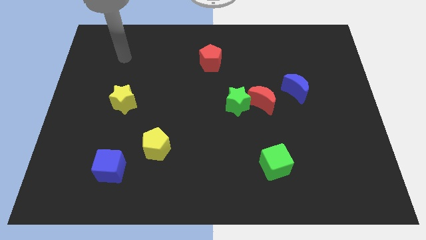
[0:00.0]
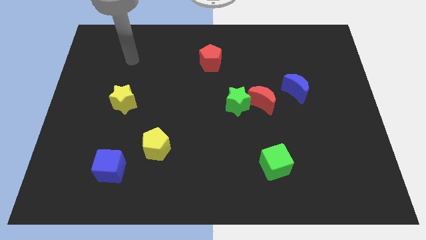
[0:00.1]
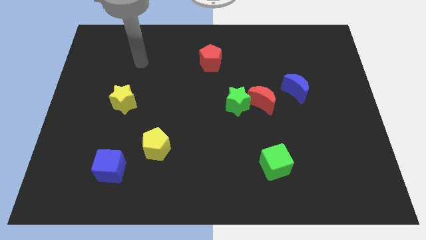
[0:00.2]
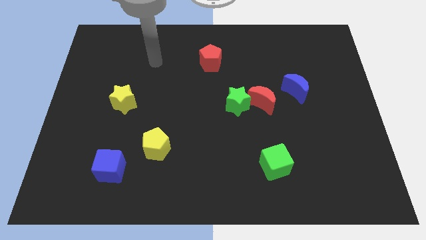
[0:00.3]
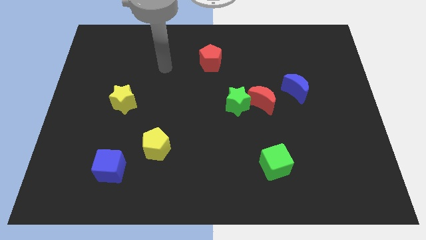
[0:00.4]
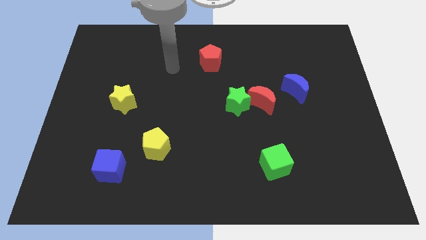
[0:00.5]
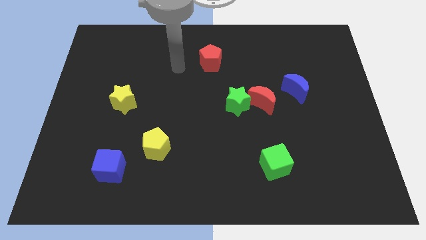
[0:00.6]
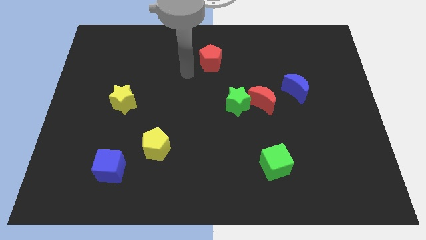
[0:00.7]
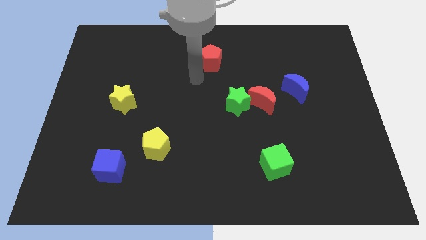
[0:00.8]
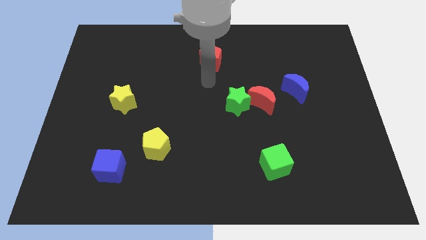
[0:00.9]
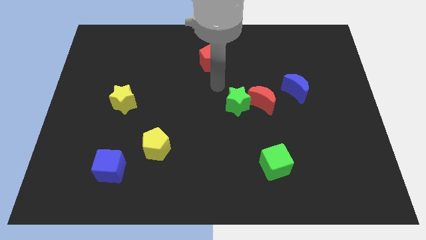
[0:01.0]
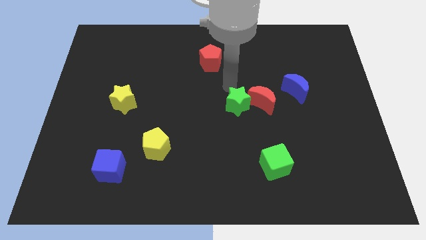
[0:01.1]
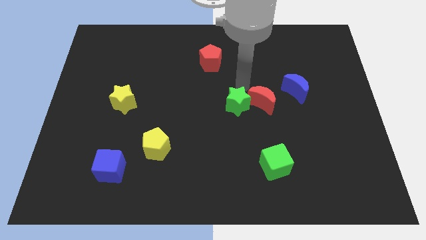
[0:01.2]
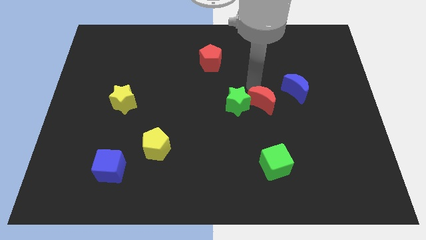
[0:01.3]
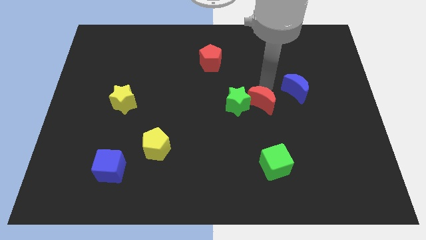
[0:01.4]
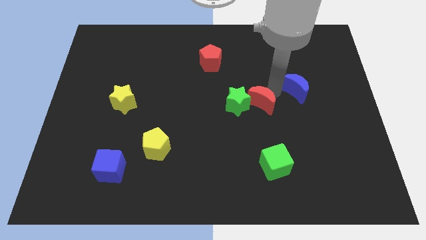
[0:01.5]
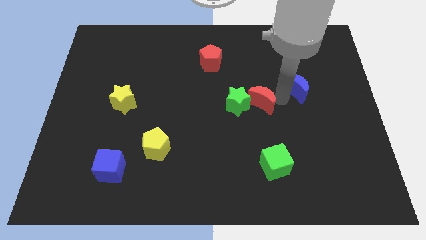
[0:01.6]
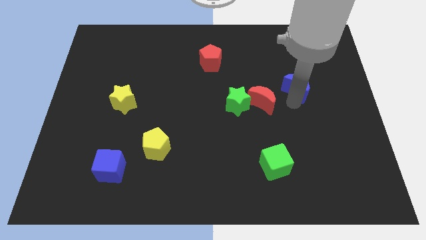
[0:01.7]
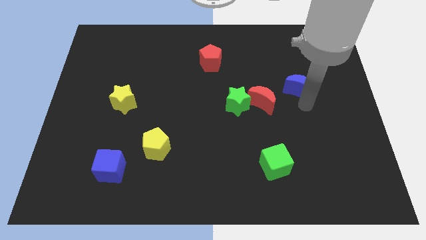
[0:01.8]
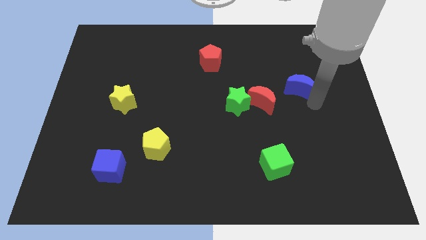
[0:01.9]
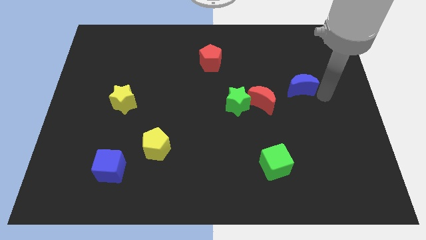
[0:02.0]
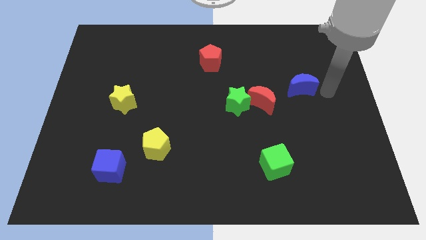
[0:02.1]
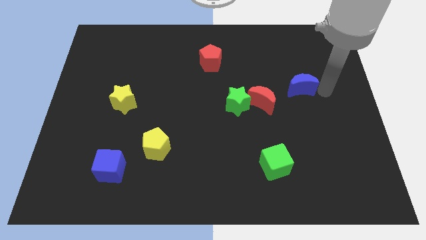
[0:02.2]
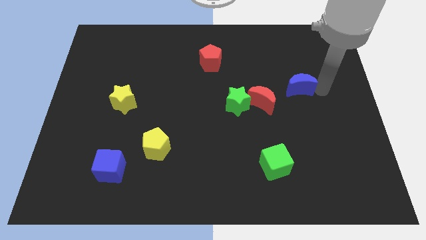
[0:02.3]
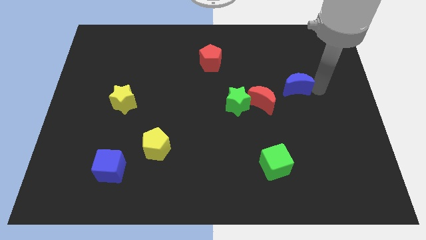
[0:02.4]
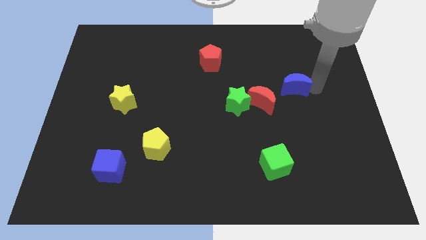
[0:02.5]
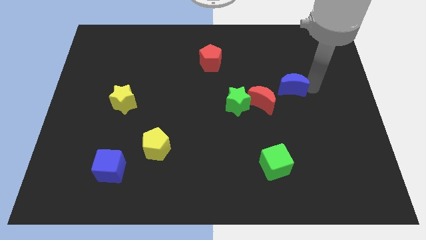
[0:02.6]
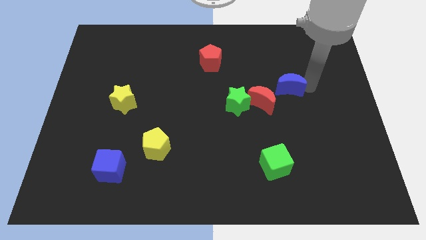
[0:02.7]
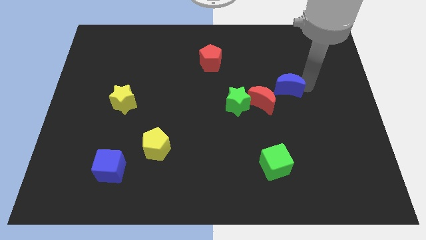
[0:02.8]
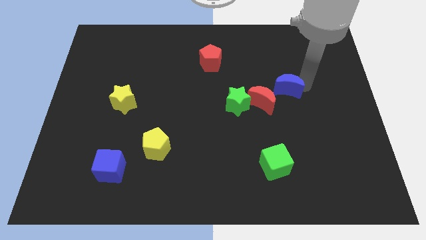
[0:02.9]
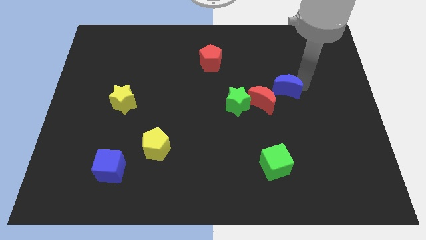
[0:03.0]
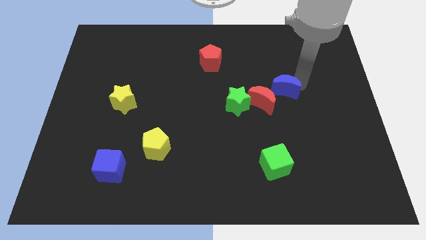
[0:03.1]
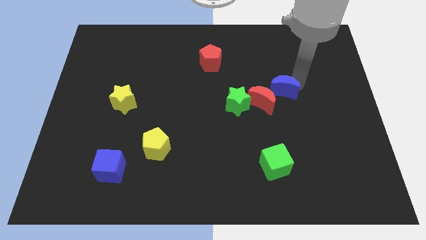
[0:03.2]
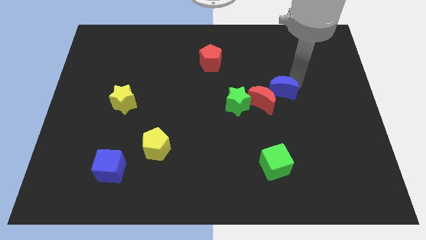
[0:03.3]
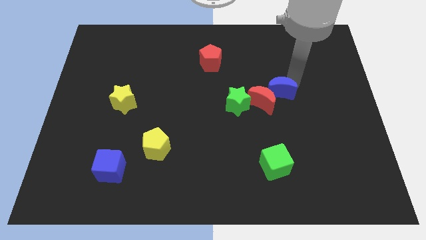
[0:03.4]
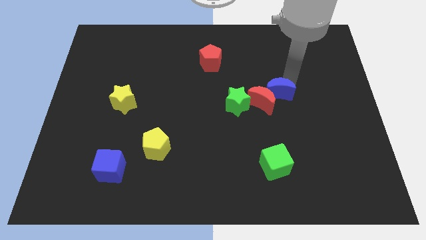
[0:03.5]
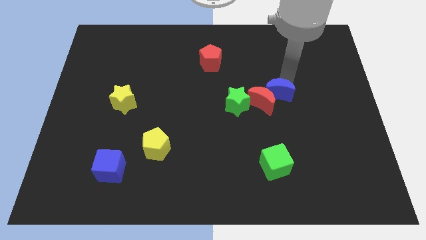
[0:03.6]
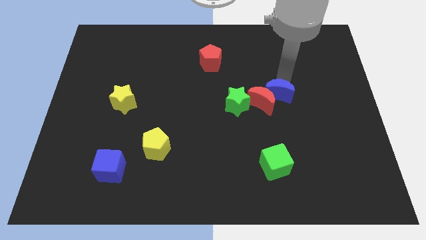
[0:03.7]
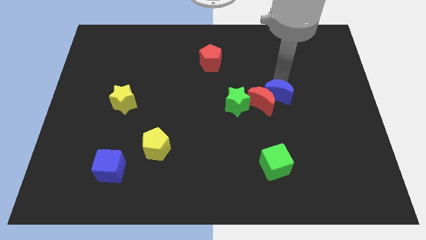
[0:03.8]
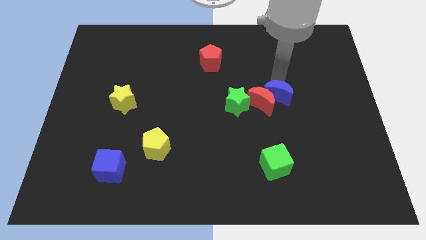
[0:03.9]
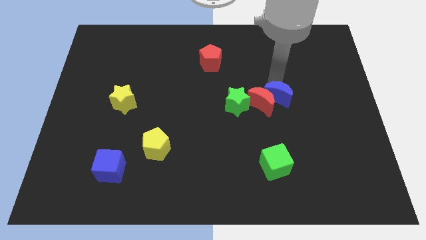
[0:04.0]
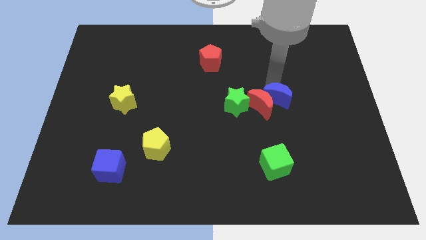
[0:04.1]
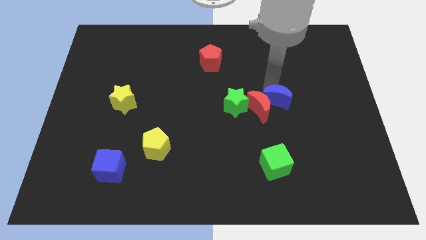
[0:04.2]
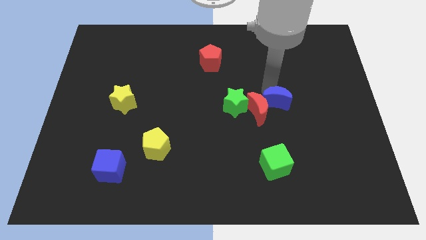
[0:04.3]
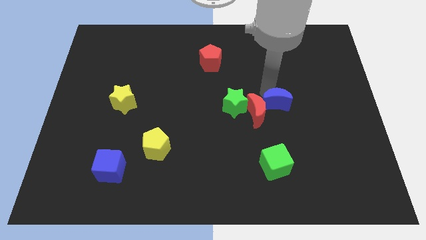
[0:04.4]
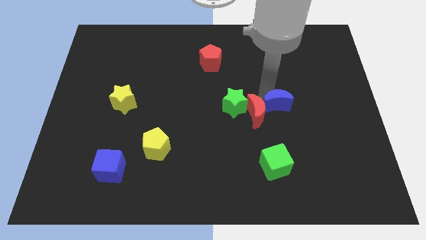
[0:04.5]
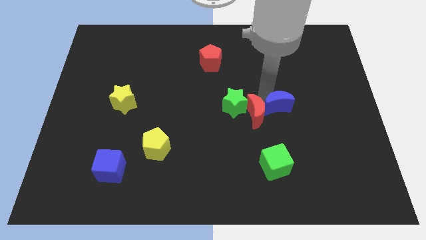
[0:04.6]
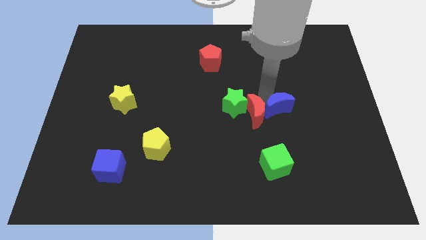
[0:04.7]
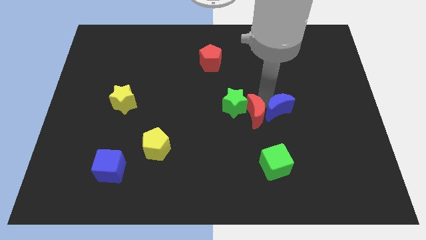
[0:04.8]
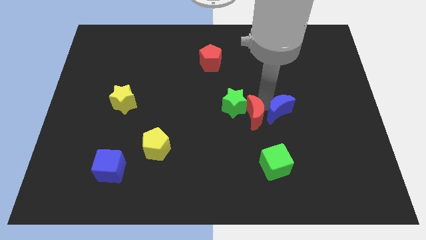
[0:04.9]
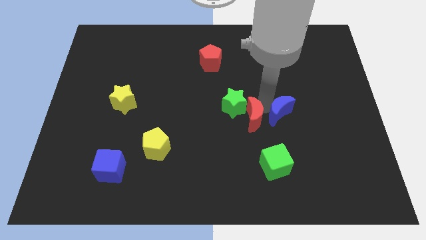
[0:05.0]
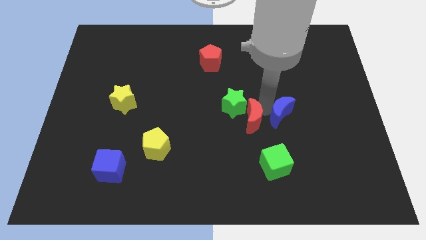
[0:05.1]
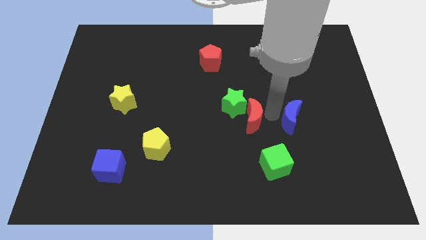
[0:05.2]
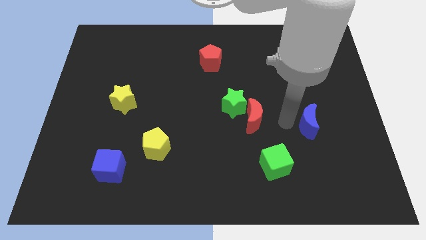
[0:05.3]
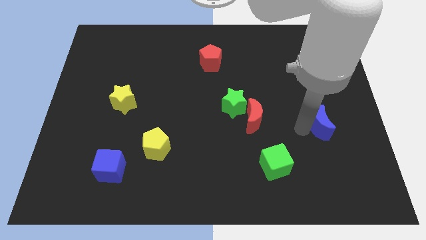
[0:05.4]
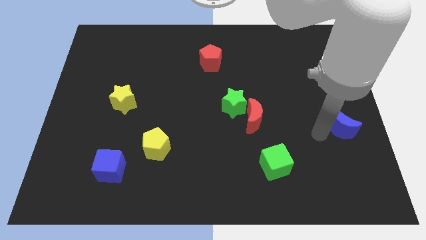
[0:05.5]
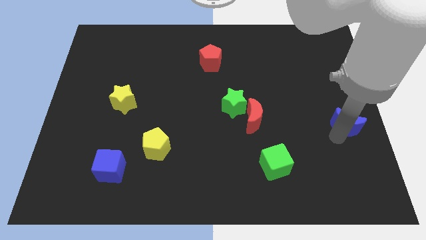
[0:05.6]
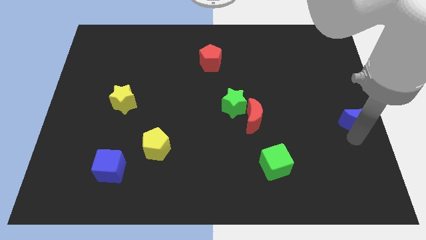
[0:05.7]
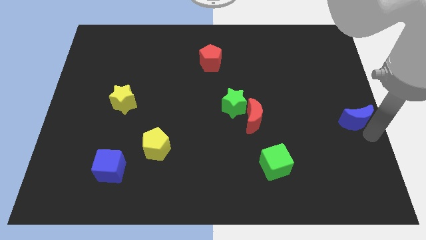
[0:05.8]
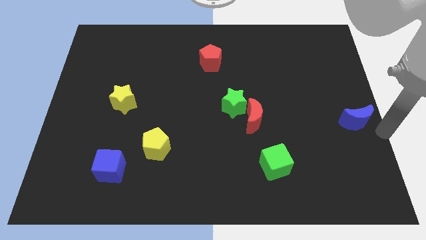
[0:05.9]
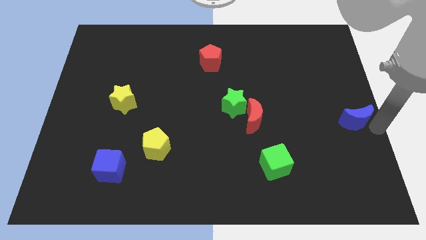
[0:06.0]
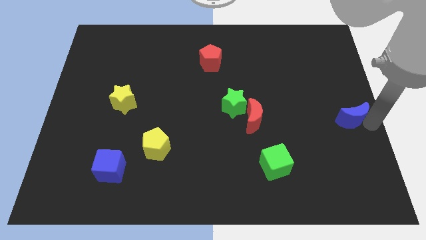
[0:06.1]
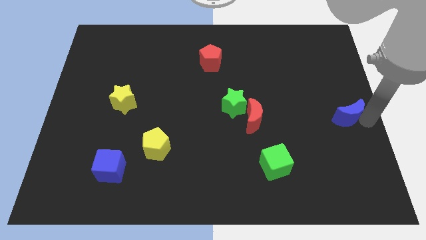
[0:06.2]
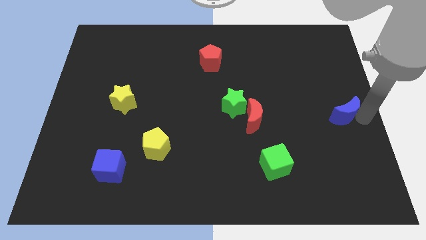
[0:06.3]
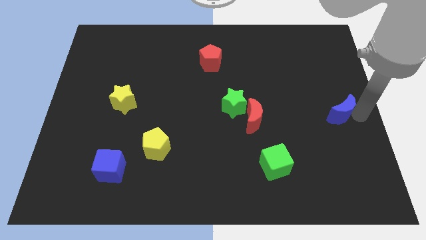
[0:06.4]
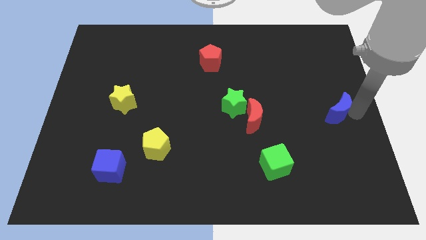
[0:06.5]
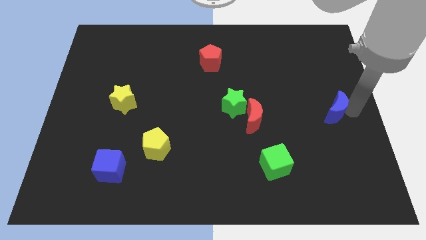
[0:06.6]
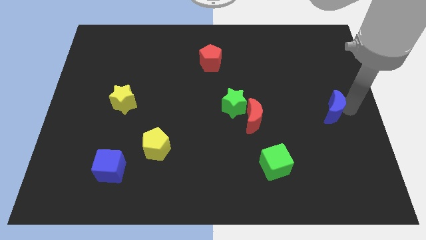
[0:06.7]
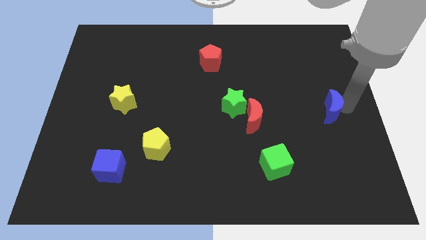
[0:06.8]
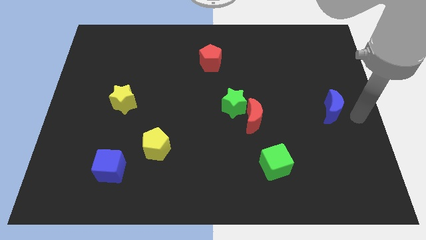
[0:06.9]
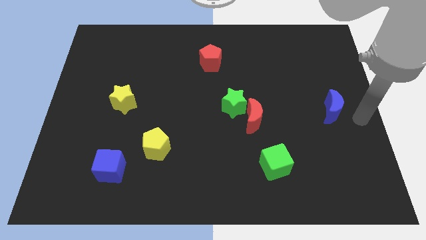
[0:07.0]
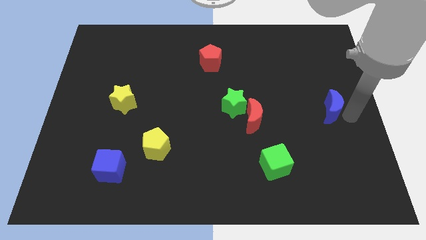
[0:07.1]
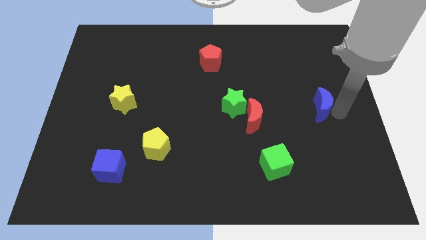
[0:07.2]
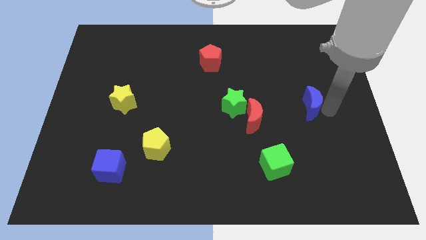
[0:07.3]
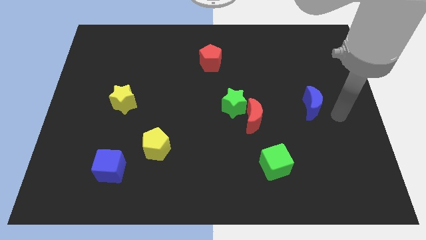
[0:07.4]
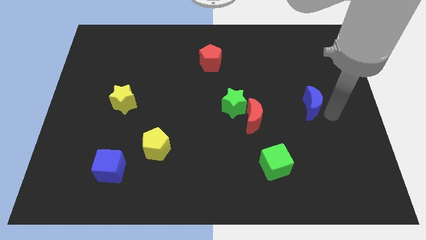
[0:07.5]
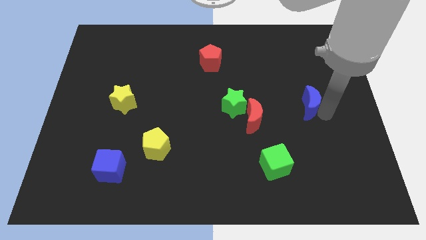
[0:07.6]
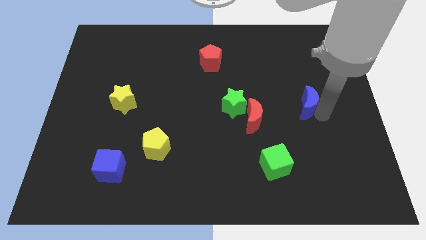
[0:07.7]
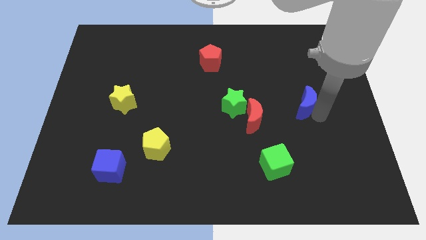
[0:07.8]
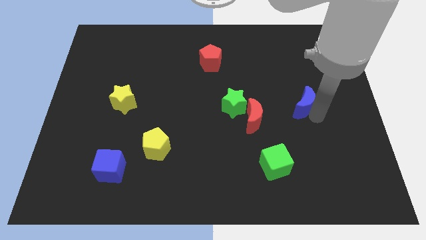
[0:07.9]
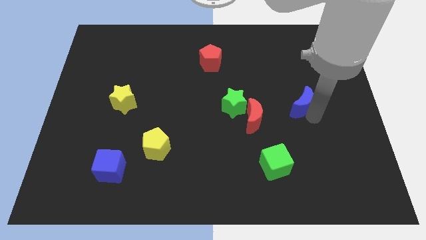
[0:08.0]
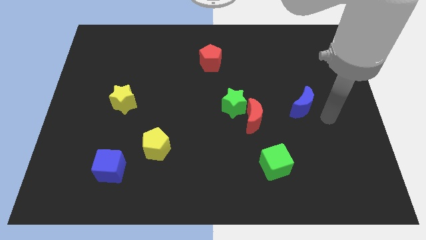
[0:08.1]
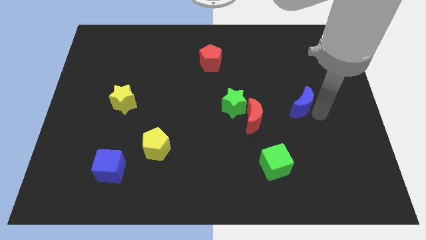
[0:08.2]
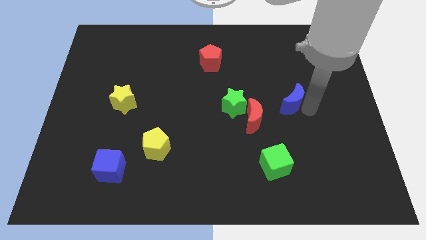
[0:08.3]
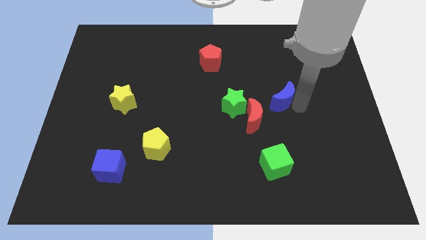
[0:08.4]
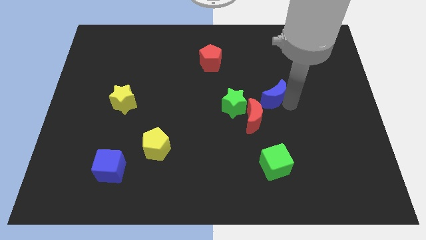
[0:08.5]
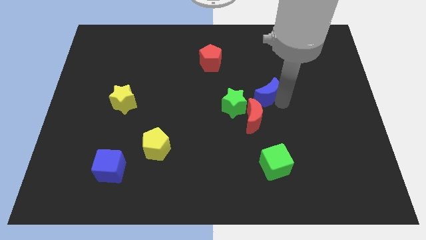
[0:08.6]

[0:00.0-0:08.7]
slightly slide the blue moon to the left
